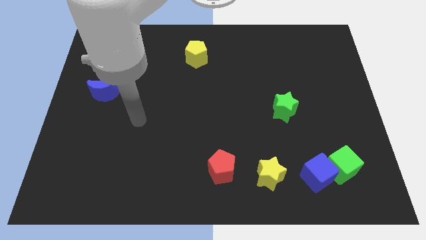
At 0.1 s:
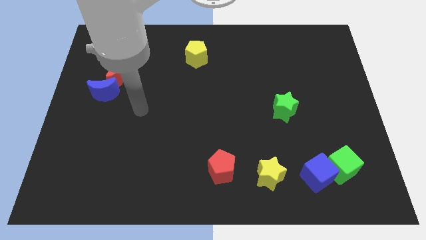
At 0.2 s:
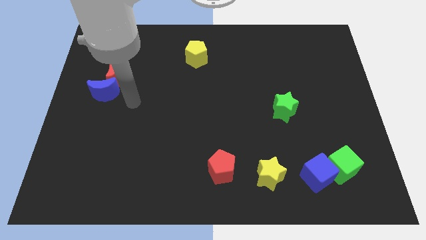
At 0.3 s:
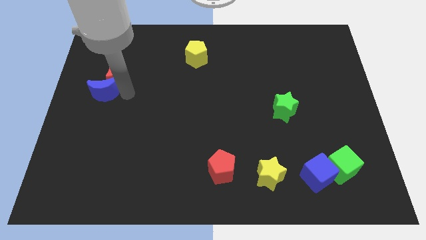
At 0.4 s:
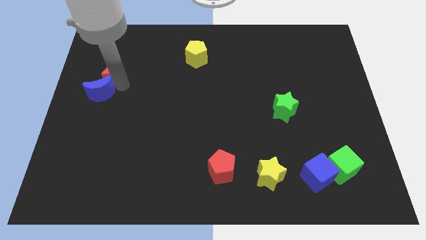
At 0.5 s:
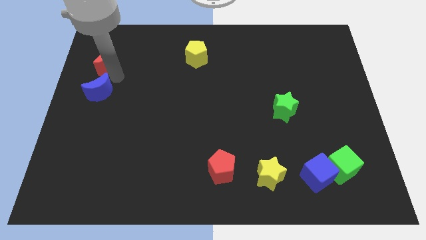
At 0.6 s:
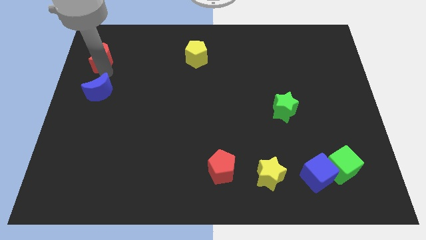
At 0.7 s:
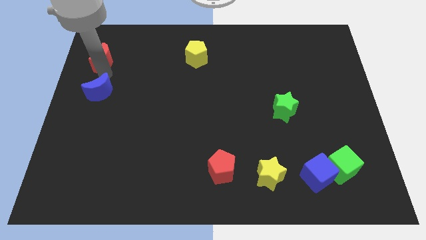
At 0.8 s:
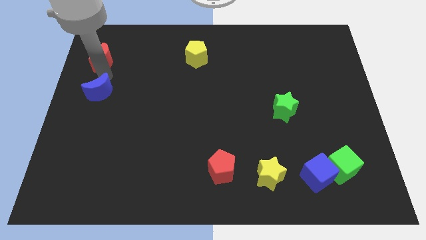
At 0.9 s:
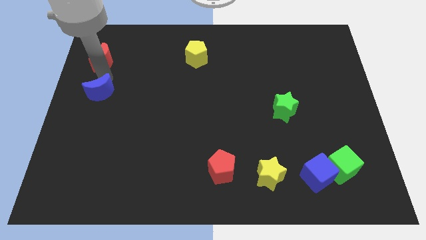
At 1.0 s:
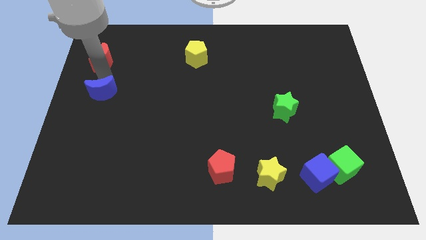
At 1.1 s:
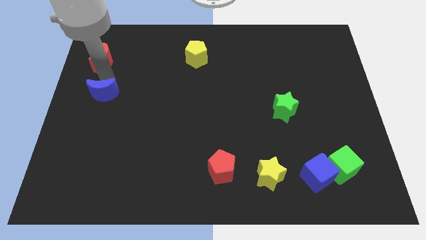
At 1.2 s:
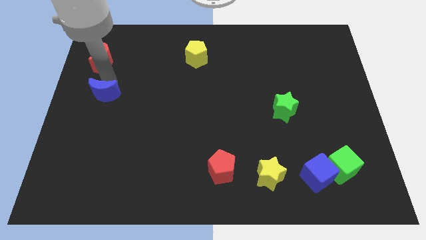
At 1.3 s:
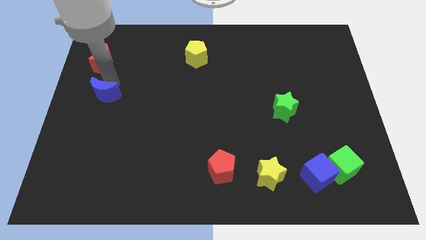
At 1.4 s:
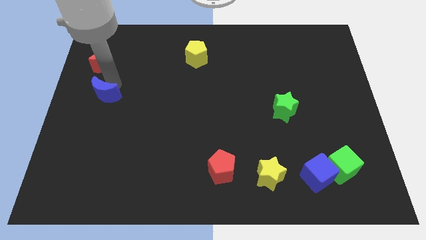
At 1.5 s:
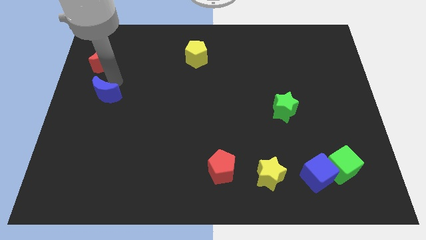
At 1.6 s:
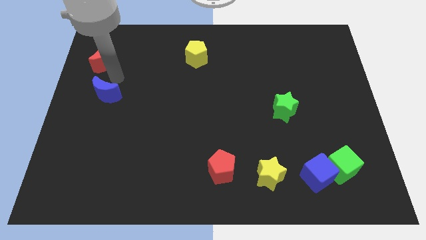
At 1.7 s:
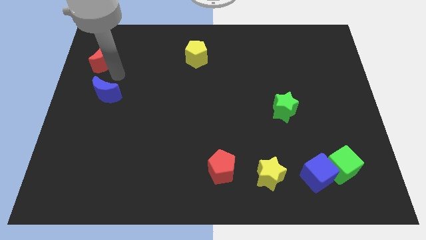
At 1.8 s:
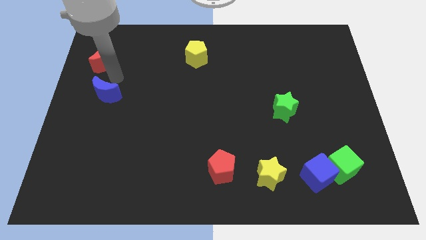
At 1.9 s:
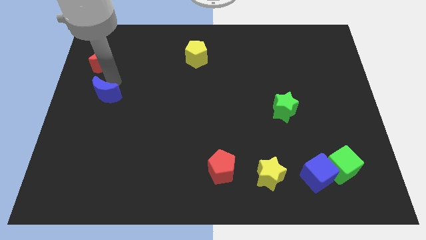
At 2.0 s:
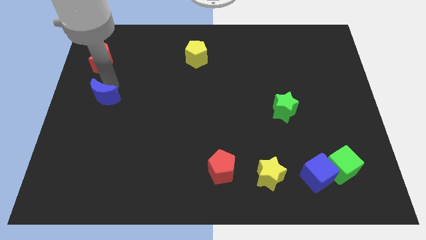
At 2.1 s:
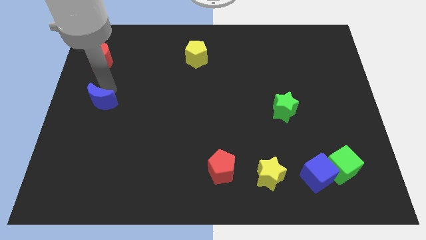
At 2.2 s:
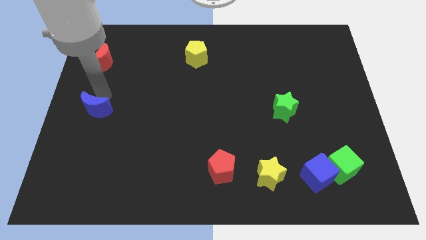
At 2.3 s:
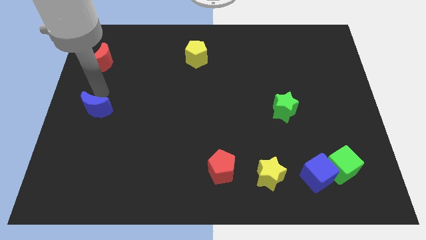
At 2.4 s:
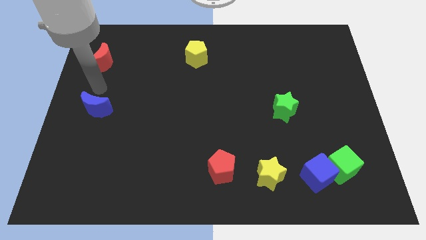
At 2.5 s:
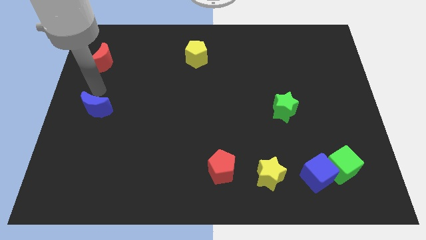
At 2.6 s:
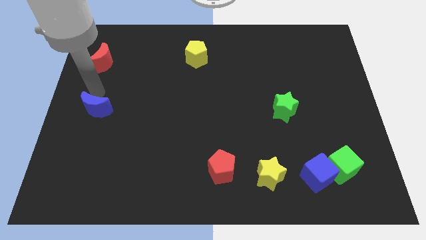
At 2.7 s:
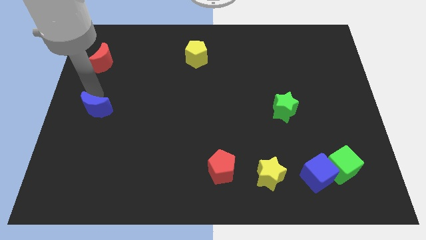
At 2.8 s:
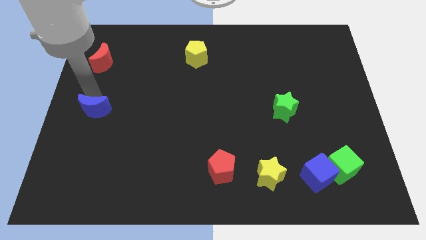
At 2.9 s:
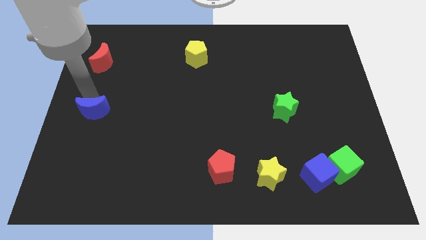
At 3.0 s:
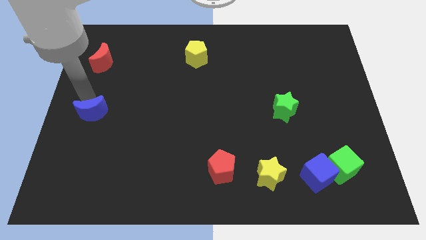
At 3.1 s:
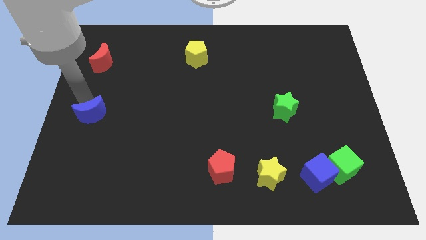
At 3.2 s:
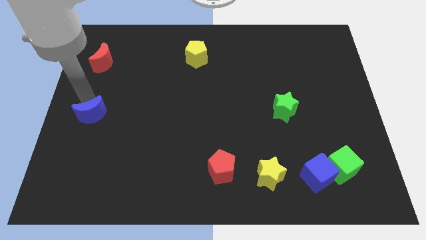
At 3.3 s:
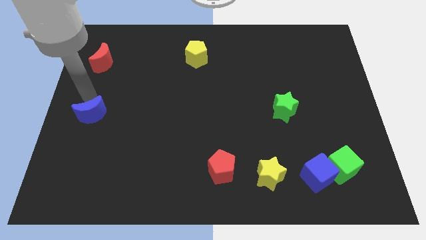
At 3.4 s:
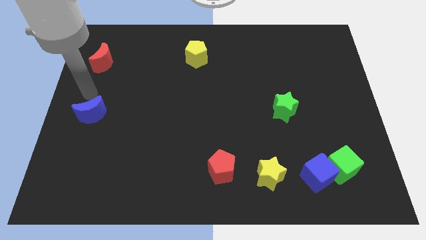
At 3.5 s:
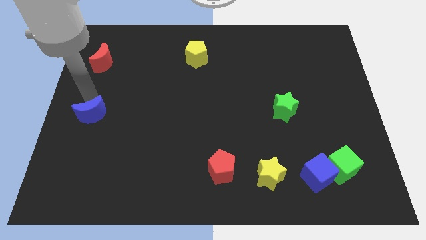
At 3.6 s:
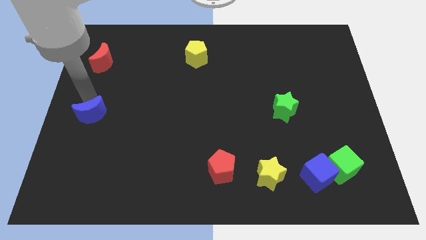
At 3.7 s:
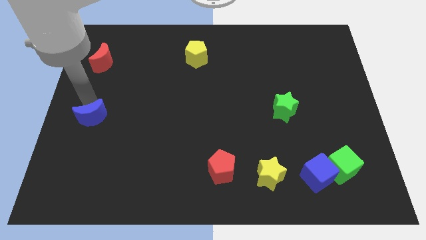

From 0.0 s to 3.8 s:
slightly push the blue moon down

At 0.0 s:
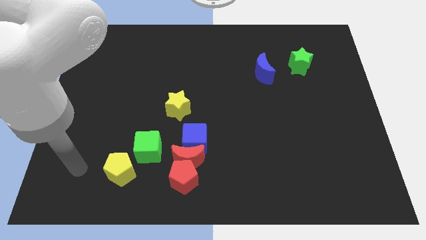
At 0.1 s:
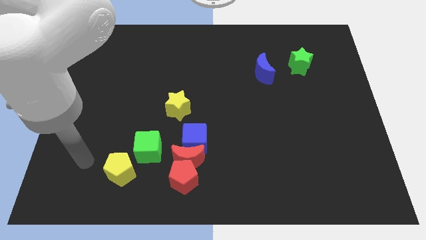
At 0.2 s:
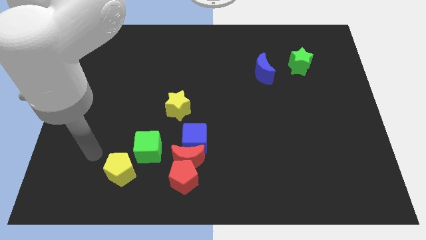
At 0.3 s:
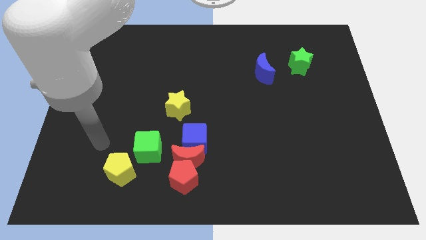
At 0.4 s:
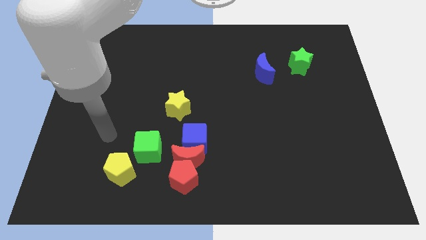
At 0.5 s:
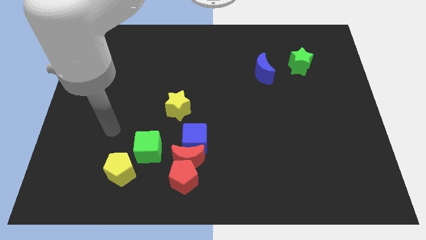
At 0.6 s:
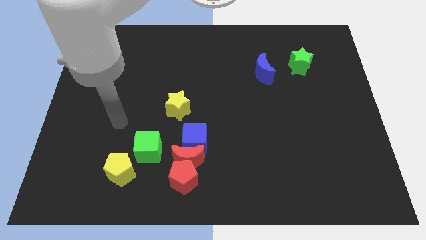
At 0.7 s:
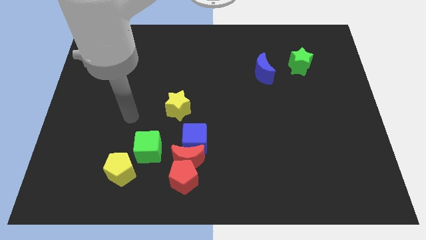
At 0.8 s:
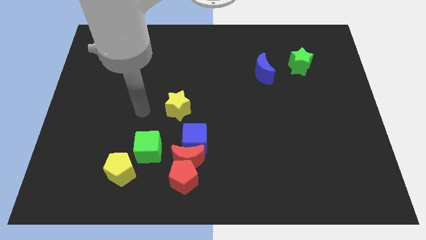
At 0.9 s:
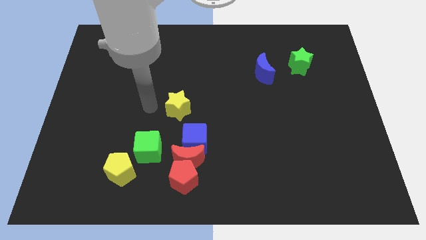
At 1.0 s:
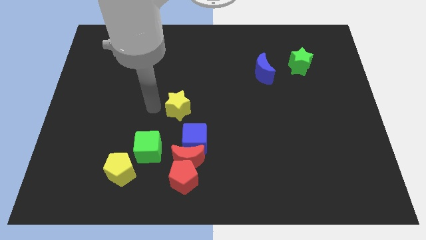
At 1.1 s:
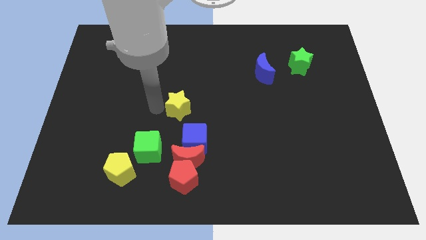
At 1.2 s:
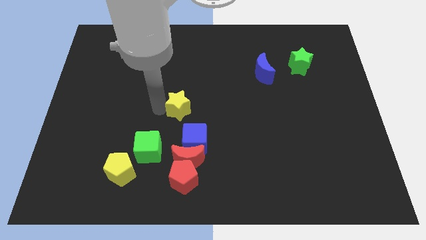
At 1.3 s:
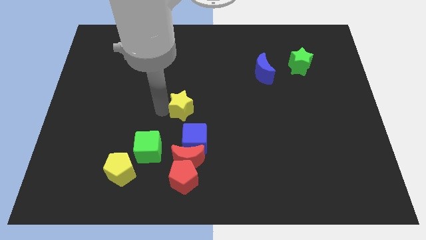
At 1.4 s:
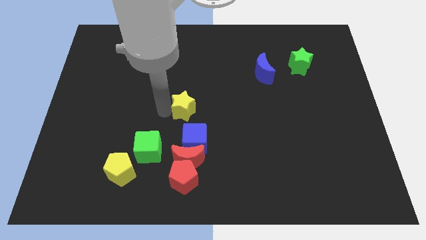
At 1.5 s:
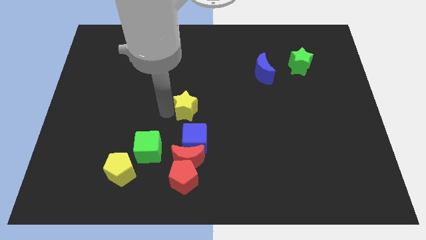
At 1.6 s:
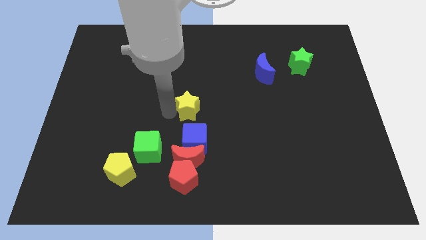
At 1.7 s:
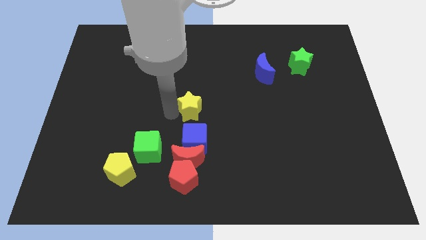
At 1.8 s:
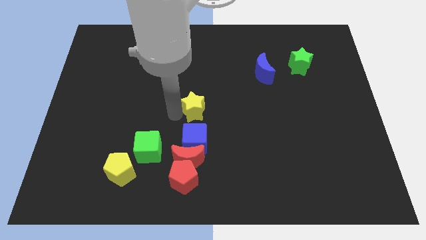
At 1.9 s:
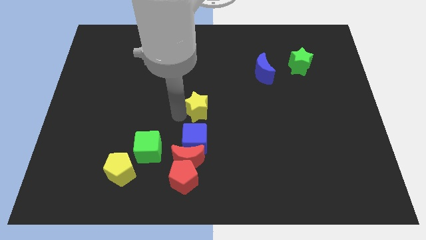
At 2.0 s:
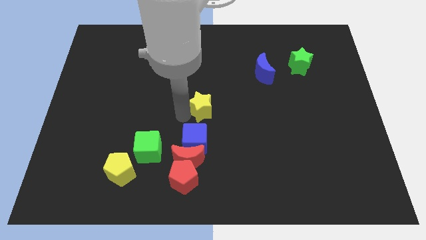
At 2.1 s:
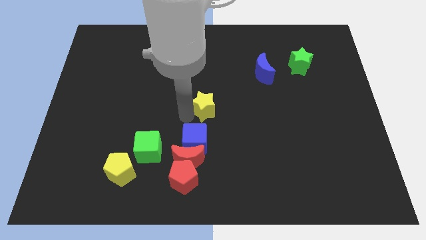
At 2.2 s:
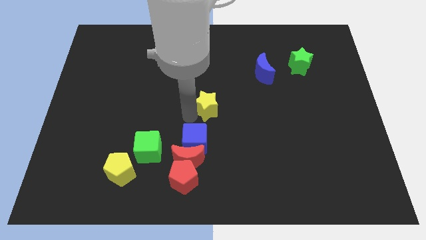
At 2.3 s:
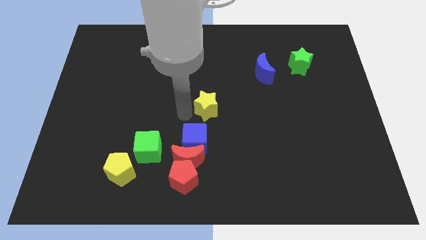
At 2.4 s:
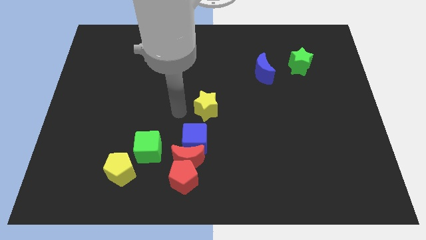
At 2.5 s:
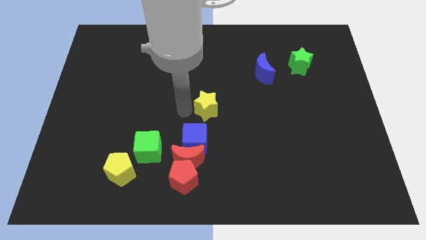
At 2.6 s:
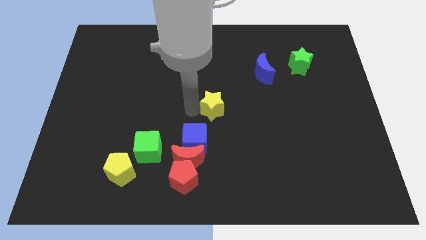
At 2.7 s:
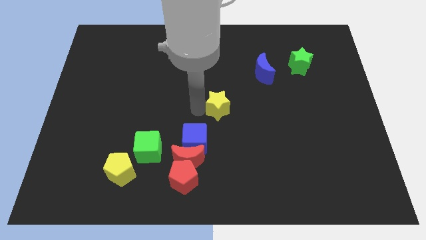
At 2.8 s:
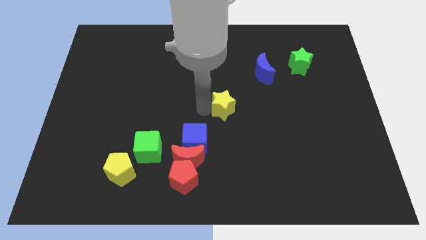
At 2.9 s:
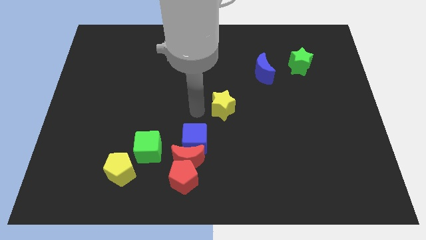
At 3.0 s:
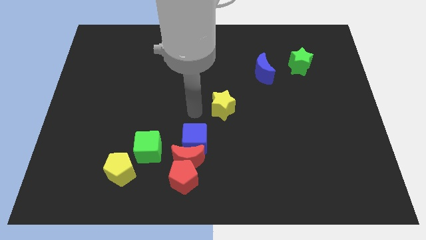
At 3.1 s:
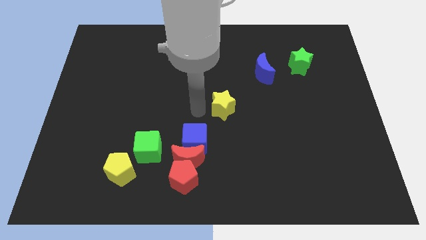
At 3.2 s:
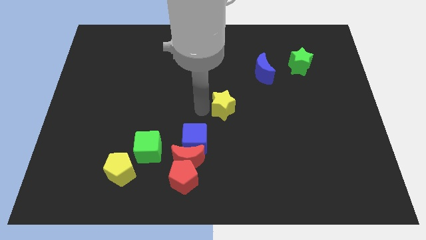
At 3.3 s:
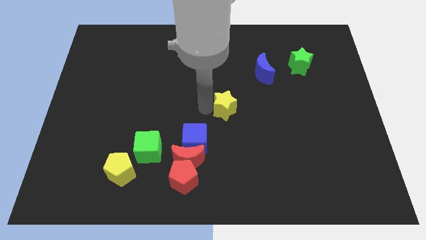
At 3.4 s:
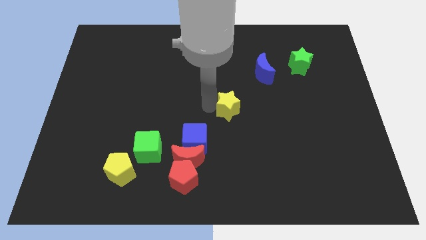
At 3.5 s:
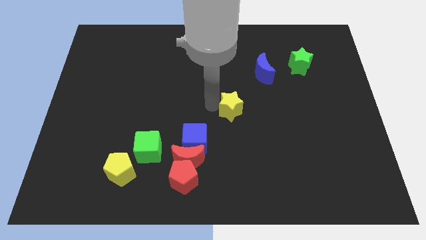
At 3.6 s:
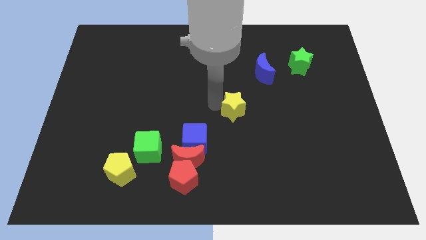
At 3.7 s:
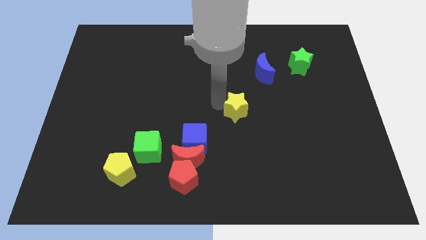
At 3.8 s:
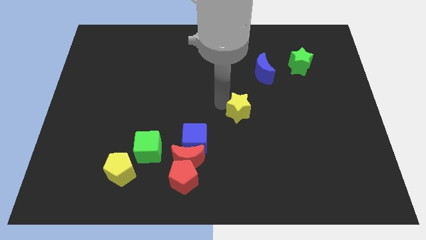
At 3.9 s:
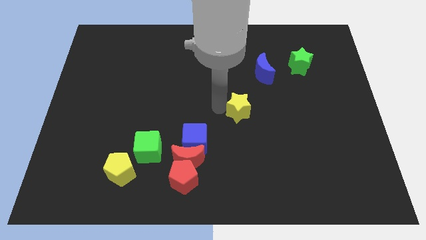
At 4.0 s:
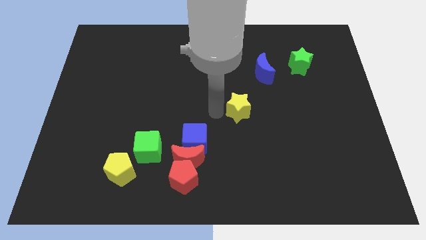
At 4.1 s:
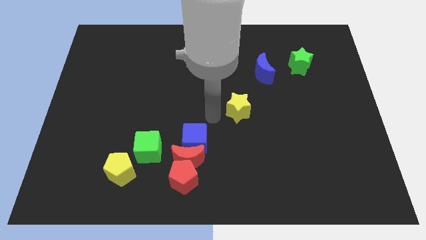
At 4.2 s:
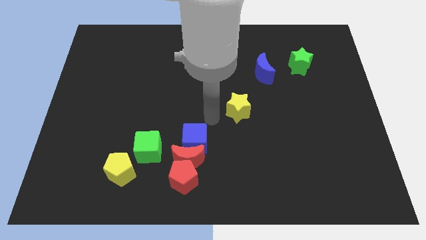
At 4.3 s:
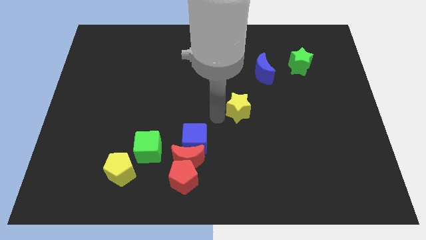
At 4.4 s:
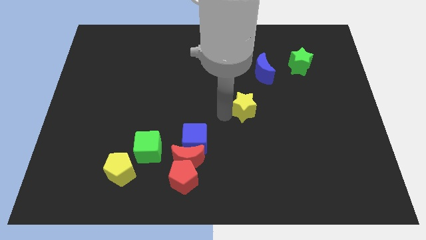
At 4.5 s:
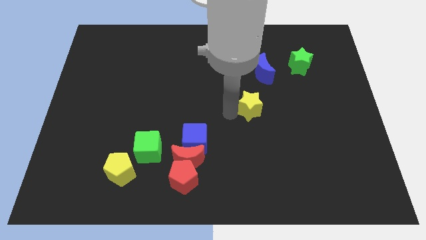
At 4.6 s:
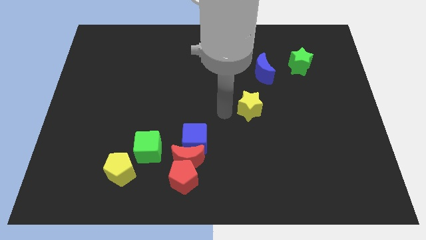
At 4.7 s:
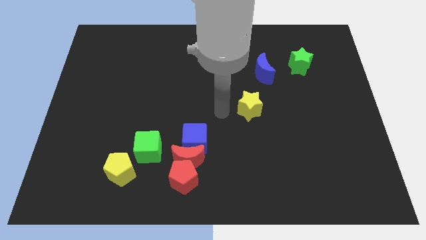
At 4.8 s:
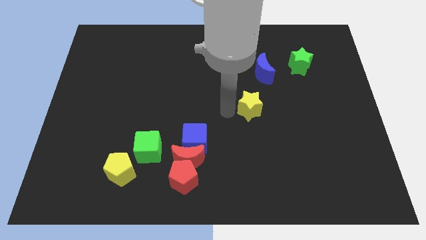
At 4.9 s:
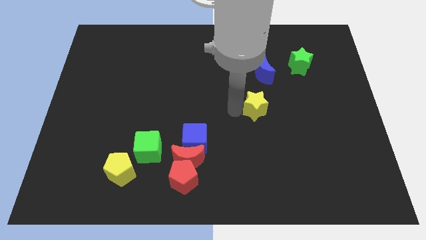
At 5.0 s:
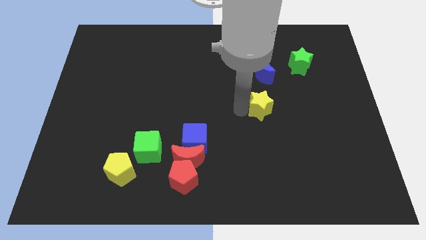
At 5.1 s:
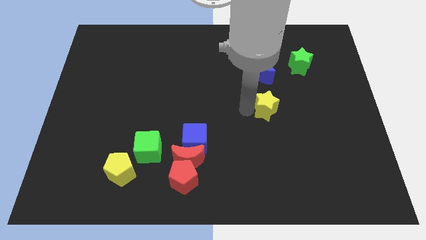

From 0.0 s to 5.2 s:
push the yellow star right
